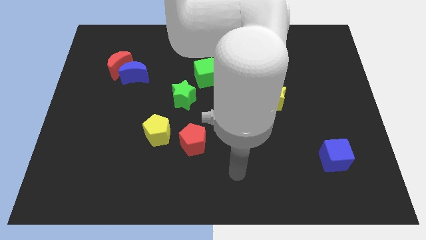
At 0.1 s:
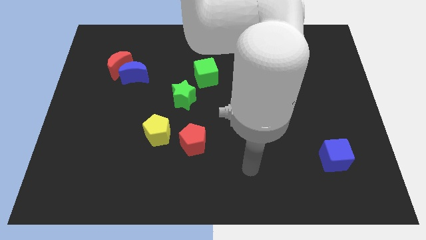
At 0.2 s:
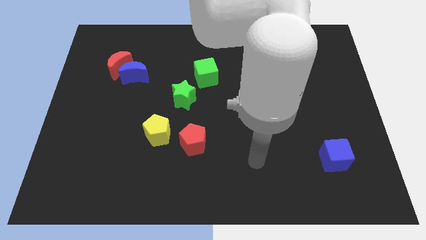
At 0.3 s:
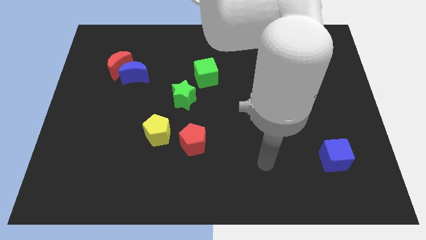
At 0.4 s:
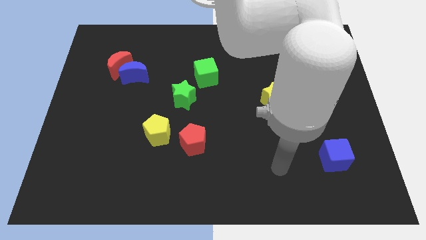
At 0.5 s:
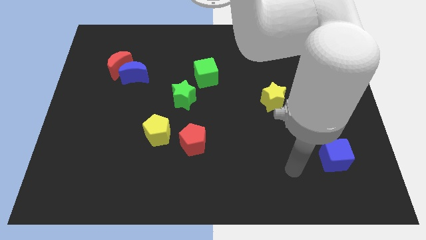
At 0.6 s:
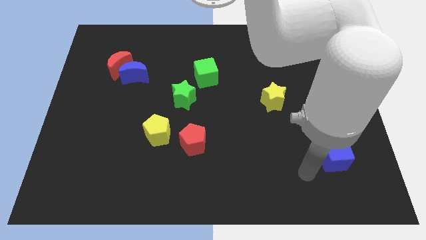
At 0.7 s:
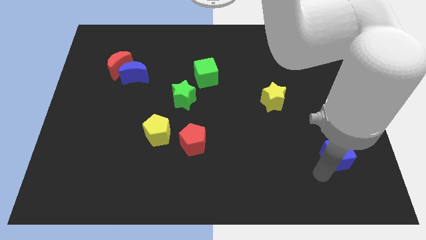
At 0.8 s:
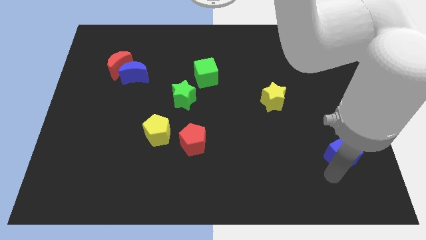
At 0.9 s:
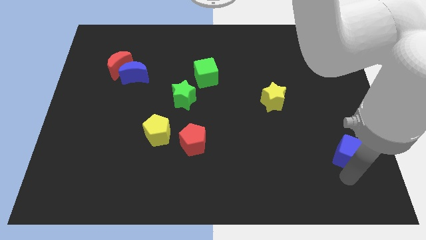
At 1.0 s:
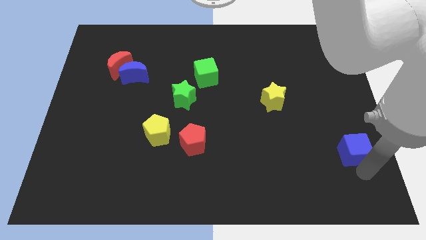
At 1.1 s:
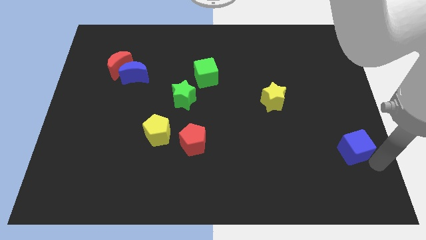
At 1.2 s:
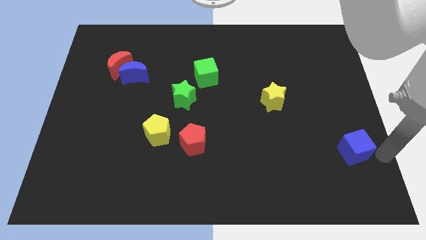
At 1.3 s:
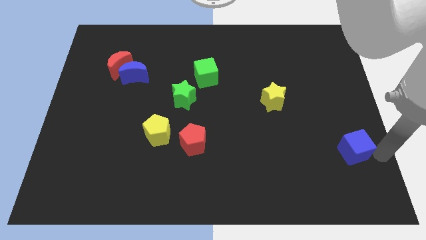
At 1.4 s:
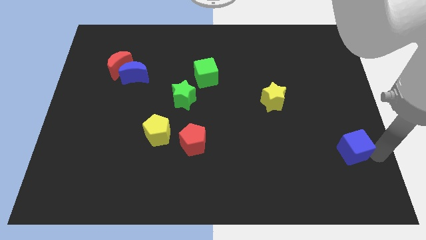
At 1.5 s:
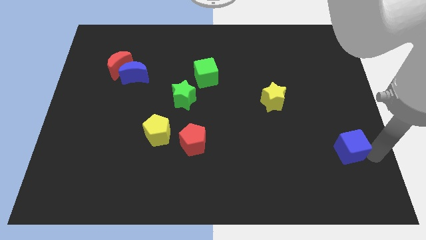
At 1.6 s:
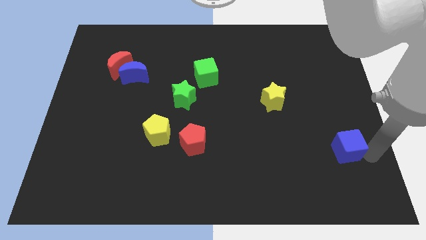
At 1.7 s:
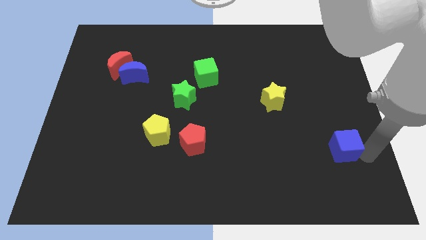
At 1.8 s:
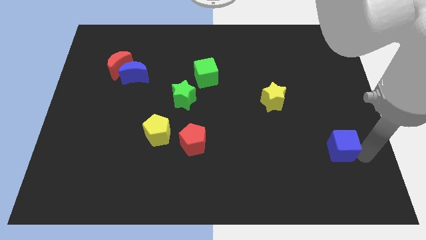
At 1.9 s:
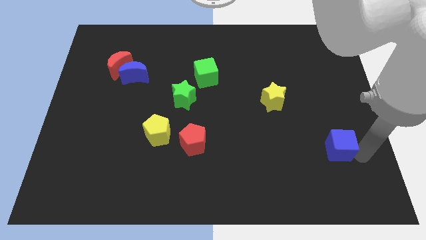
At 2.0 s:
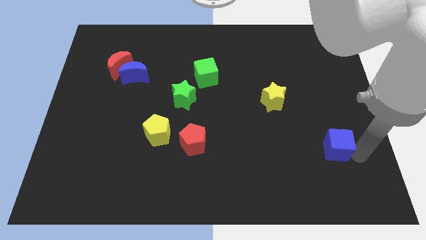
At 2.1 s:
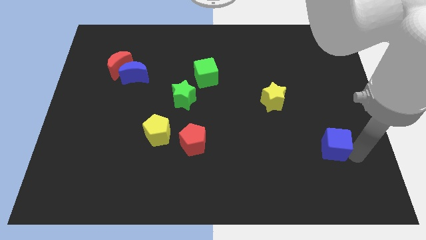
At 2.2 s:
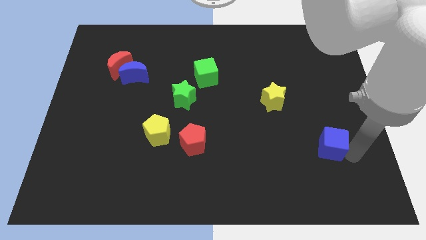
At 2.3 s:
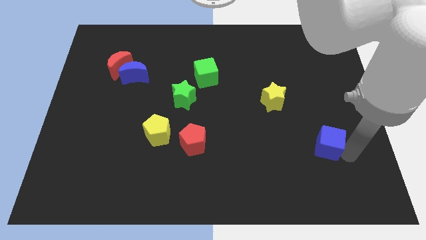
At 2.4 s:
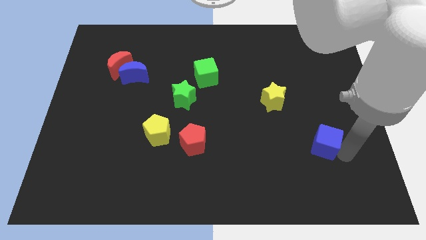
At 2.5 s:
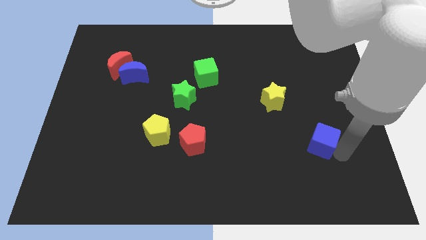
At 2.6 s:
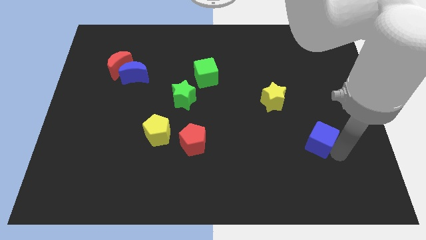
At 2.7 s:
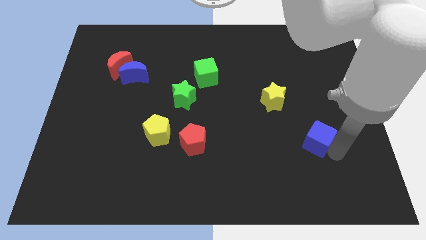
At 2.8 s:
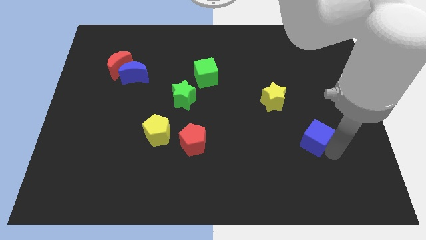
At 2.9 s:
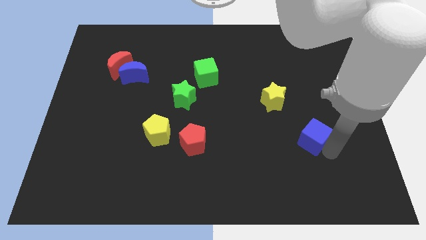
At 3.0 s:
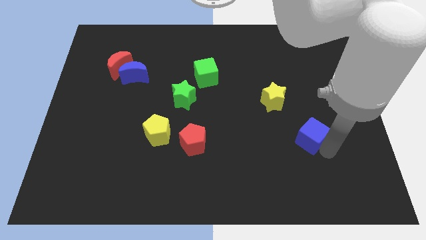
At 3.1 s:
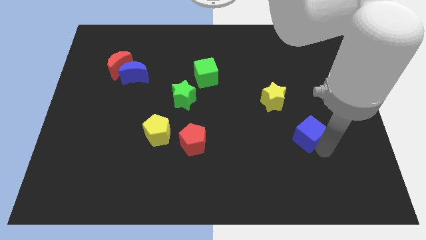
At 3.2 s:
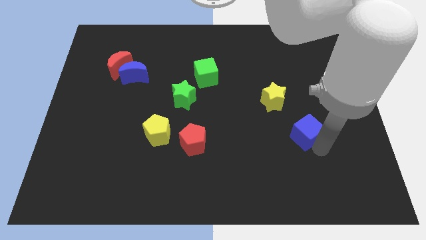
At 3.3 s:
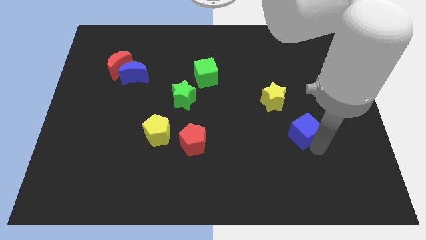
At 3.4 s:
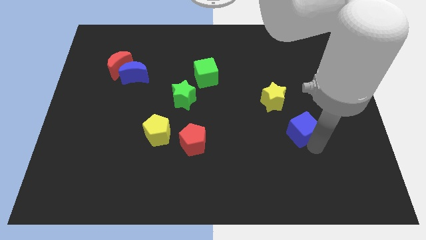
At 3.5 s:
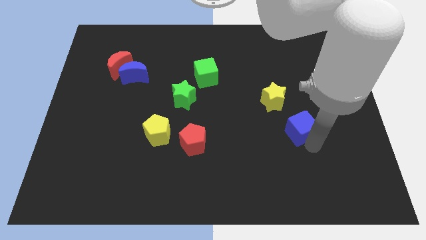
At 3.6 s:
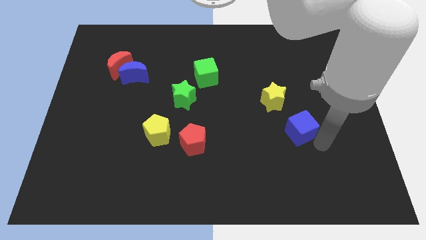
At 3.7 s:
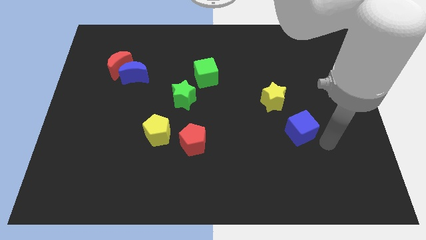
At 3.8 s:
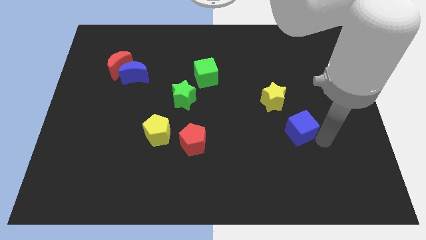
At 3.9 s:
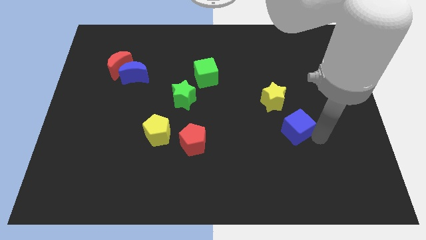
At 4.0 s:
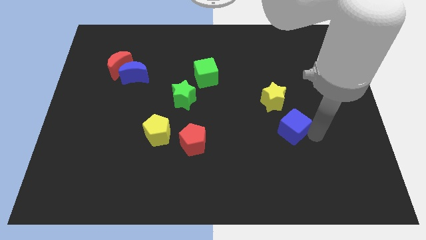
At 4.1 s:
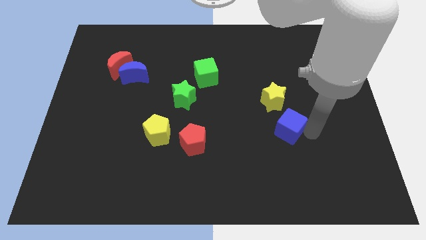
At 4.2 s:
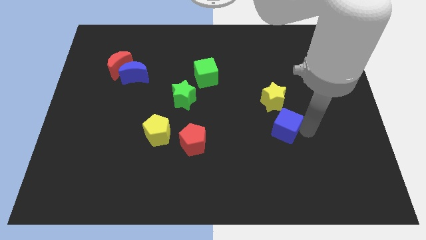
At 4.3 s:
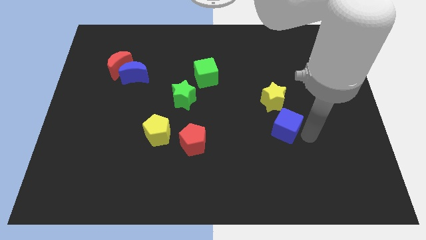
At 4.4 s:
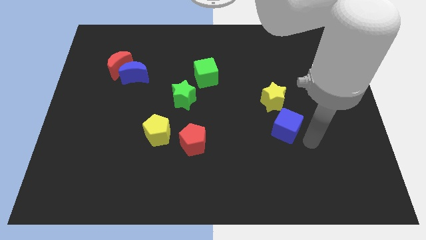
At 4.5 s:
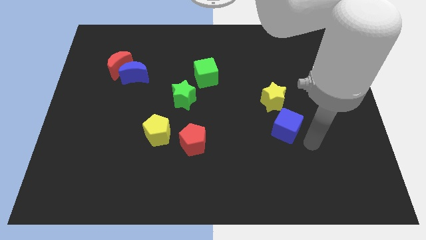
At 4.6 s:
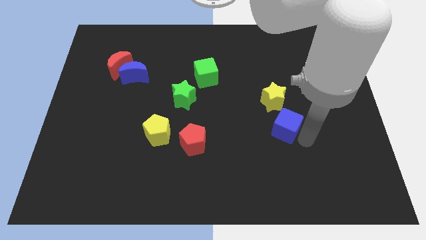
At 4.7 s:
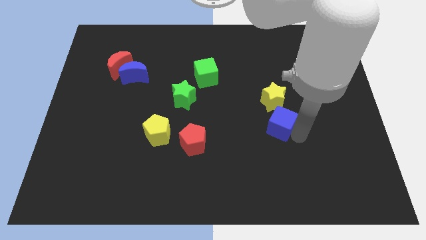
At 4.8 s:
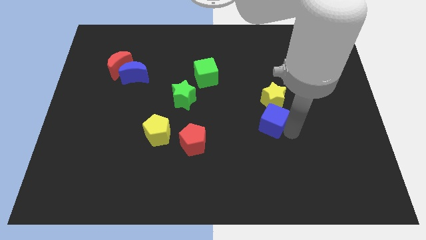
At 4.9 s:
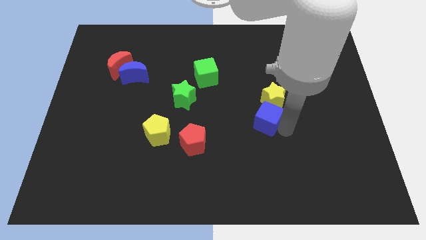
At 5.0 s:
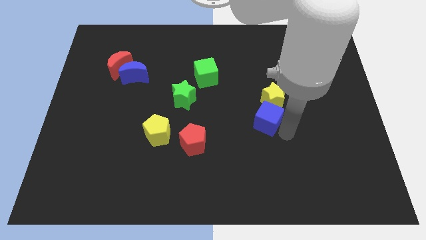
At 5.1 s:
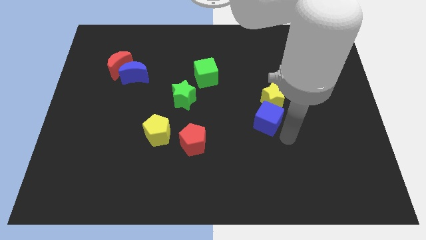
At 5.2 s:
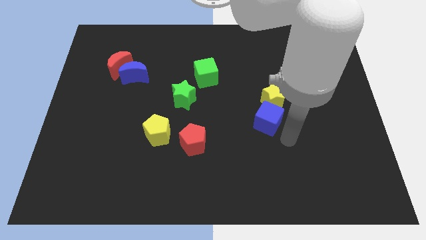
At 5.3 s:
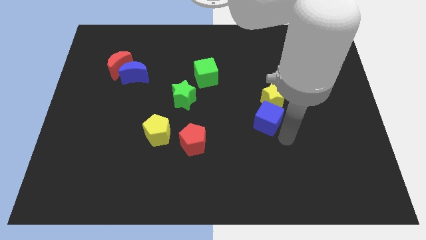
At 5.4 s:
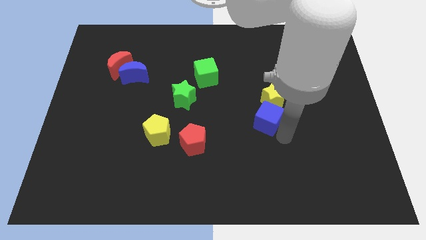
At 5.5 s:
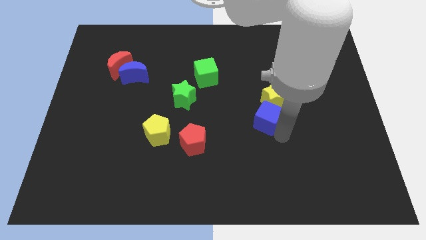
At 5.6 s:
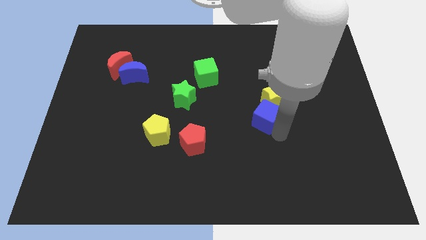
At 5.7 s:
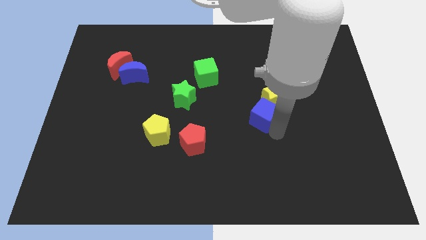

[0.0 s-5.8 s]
move the blue cube to the middle of the board
